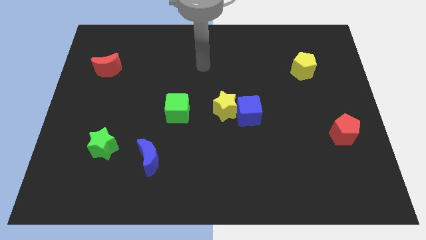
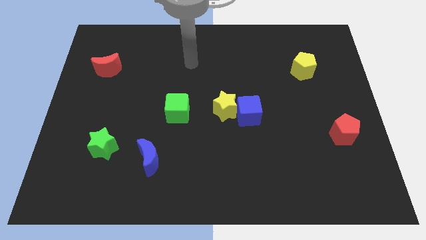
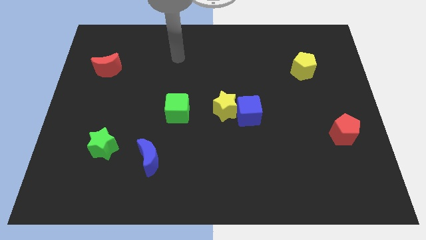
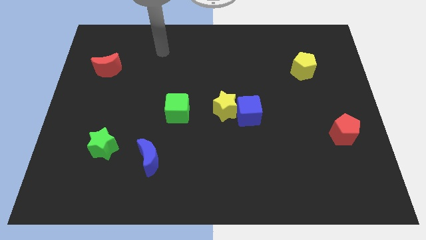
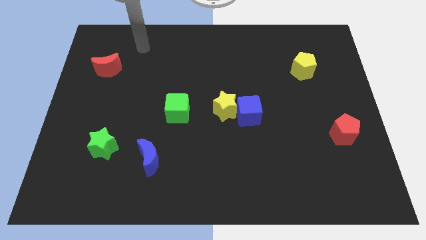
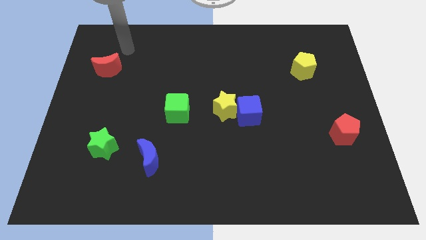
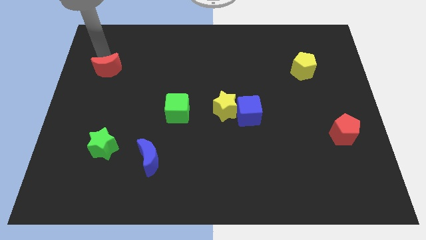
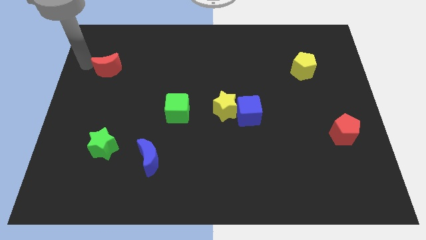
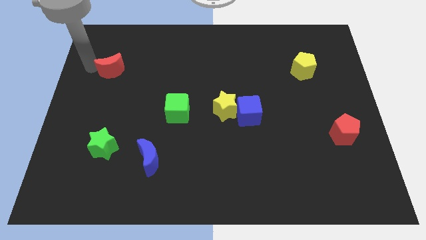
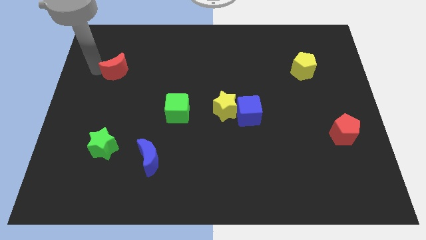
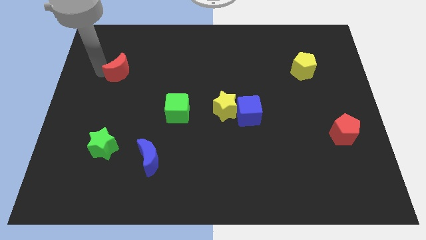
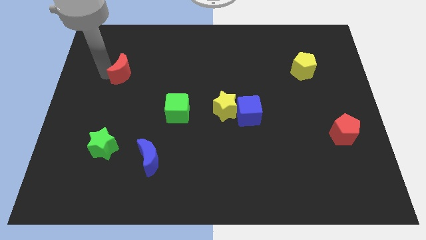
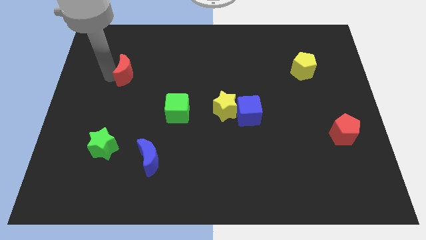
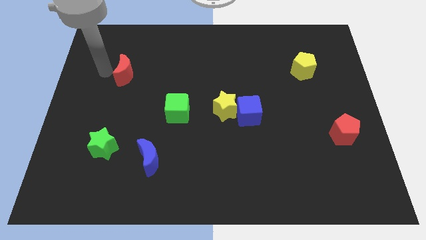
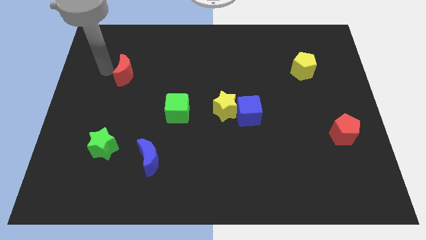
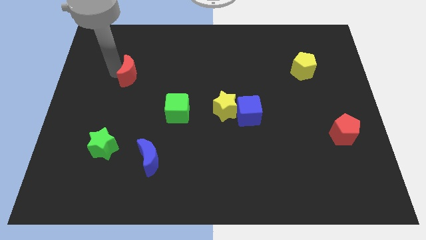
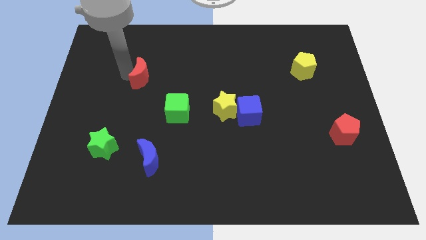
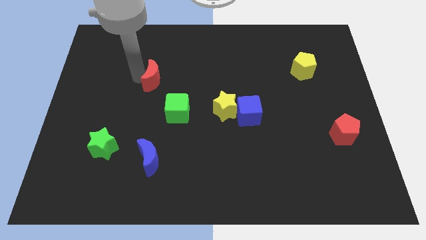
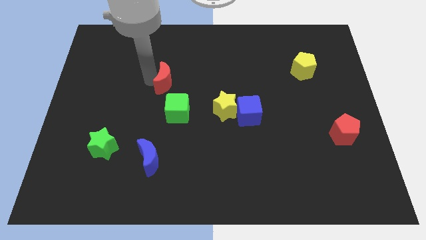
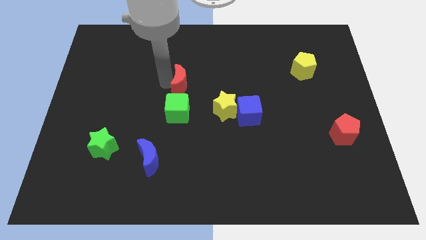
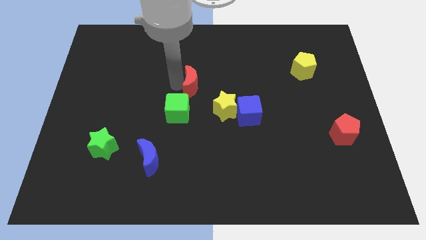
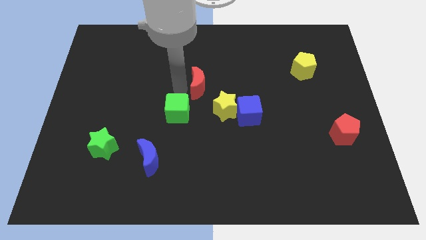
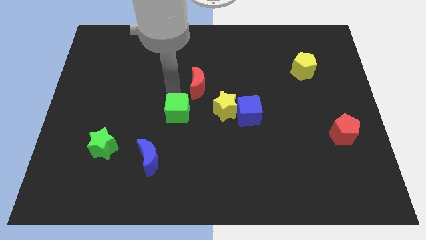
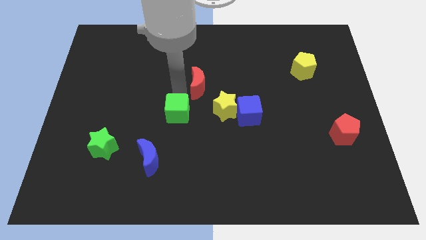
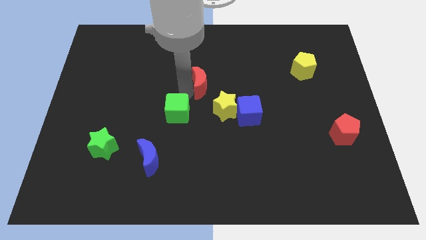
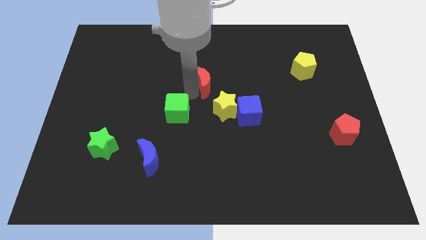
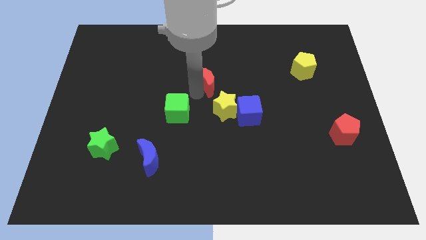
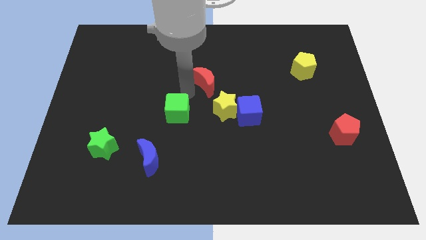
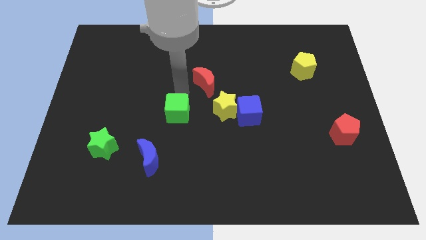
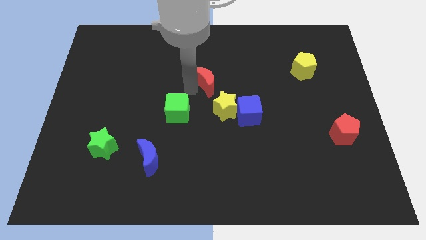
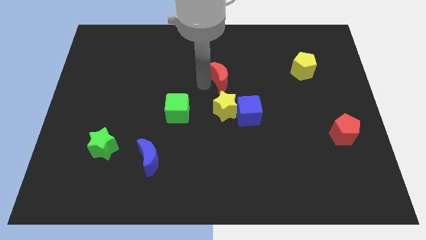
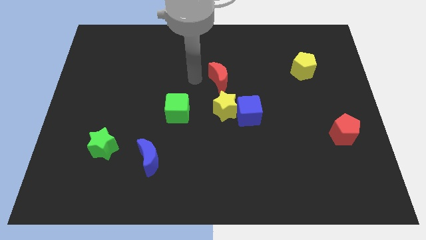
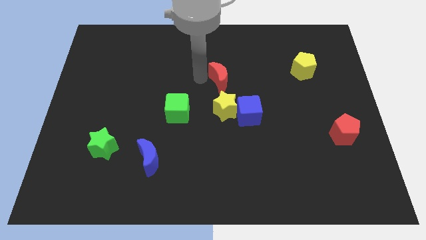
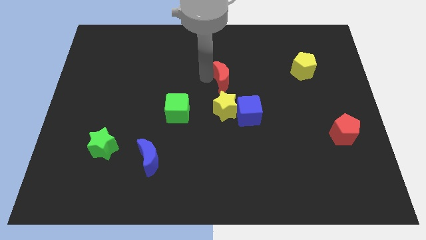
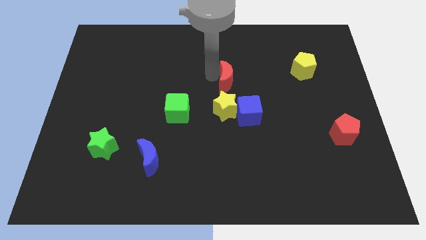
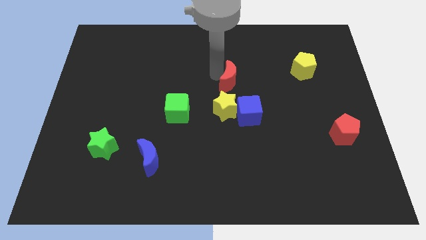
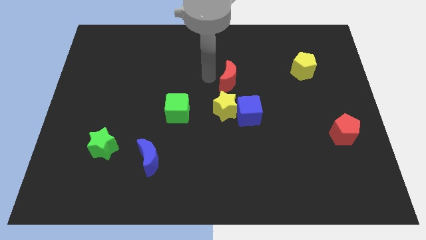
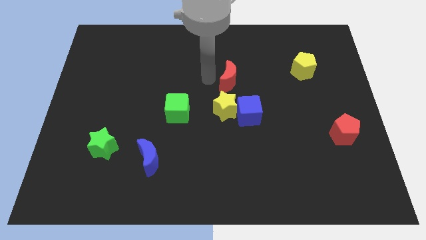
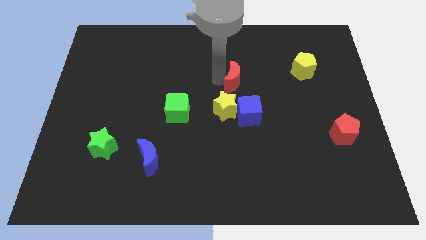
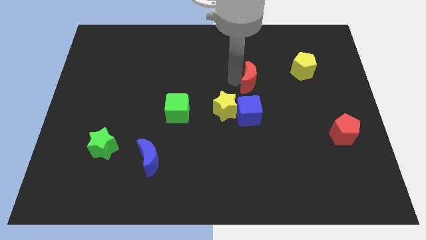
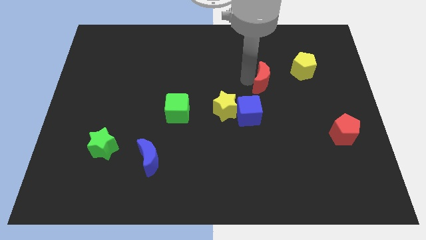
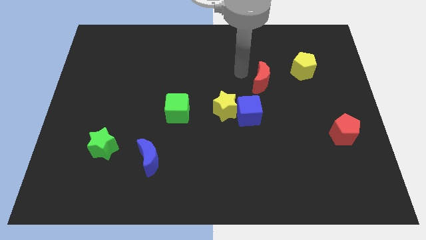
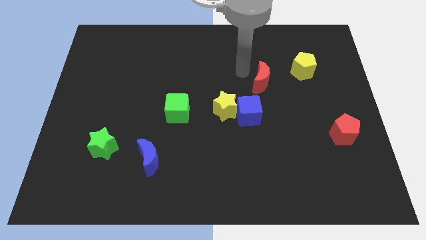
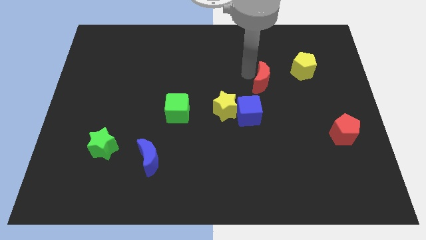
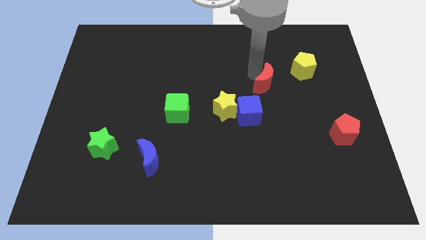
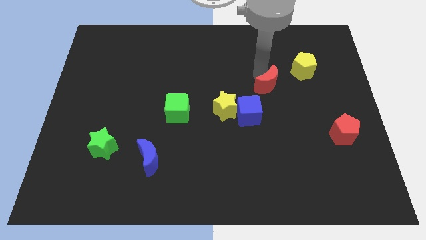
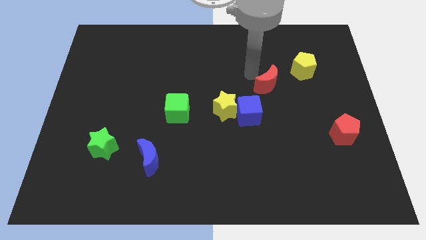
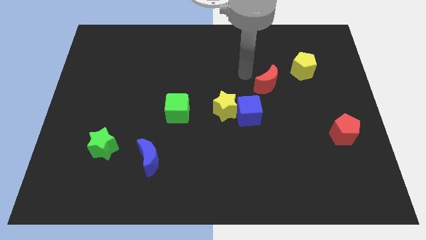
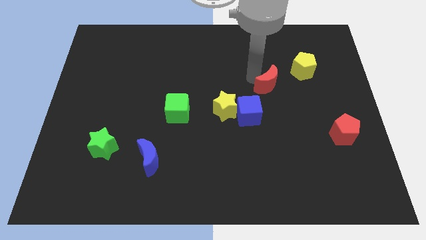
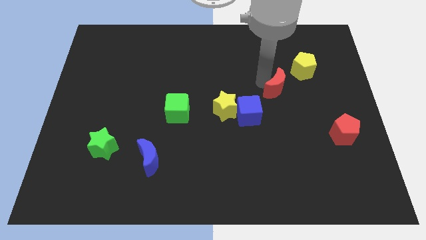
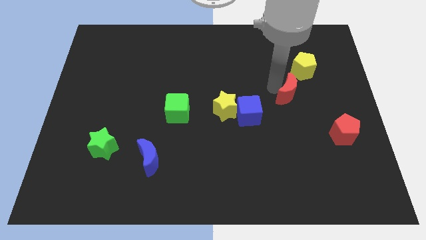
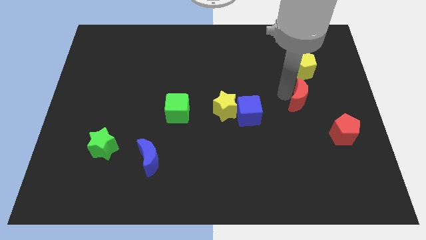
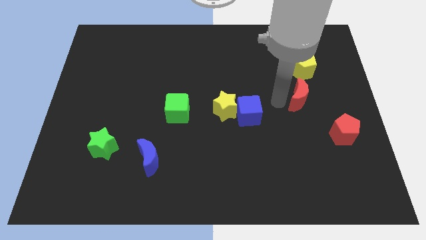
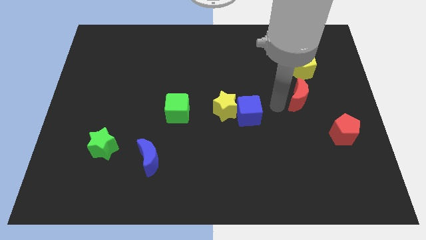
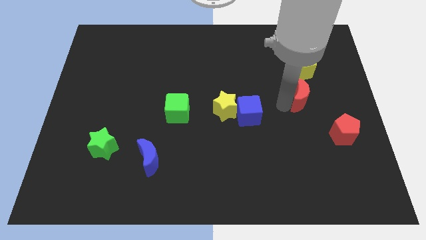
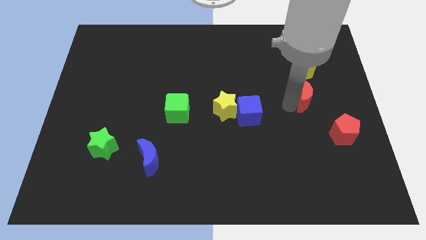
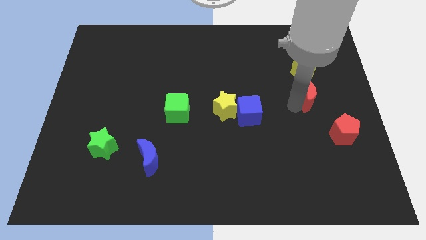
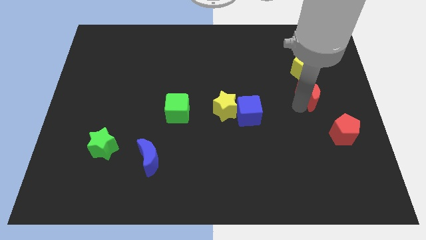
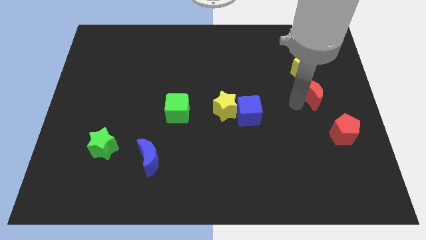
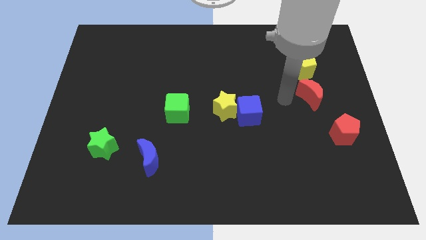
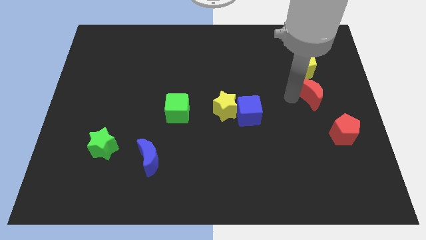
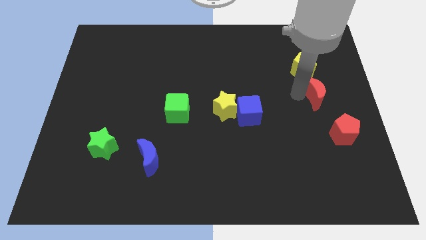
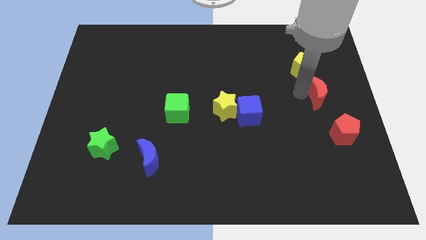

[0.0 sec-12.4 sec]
push the red moon to the right side
